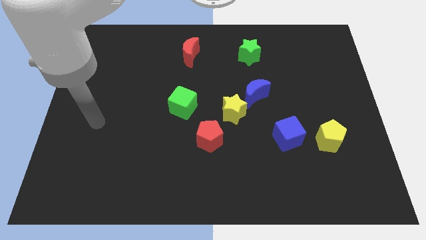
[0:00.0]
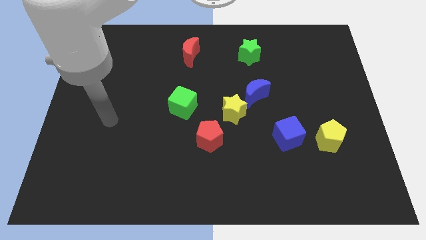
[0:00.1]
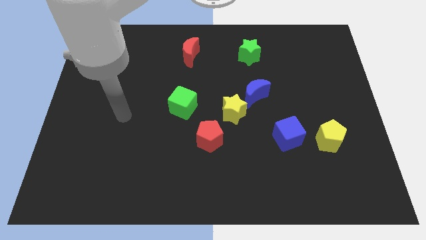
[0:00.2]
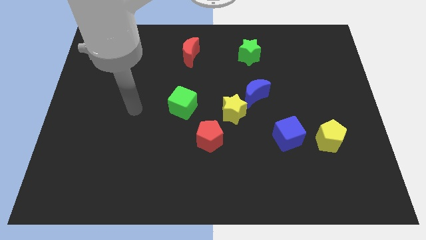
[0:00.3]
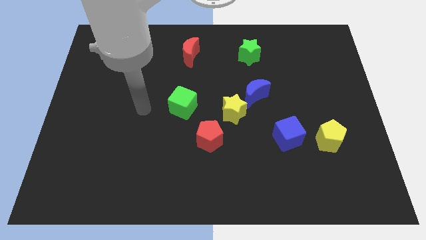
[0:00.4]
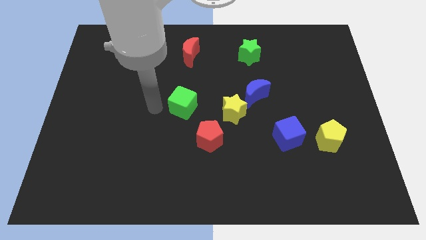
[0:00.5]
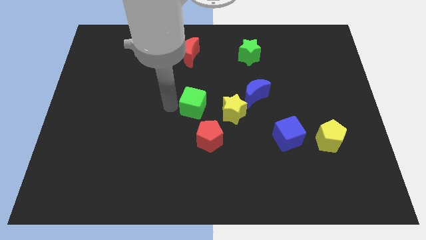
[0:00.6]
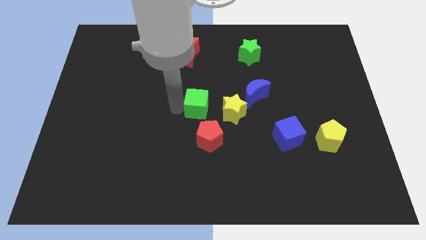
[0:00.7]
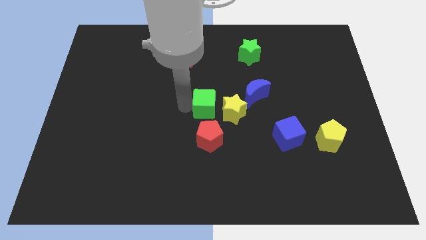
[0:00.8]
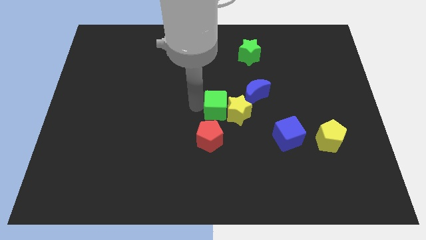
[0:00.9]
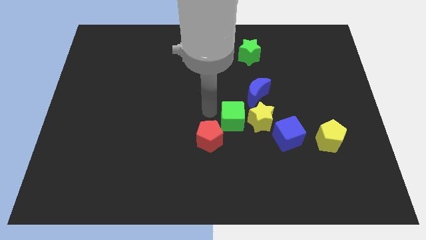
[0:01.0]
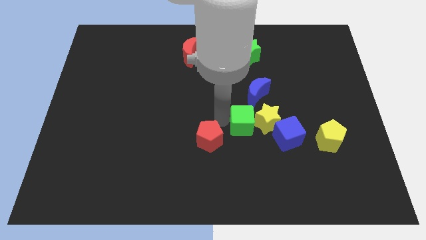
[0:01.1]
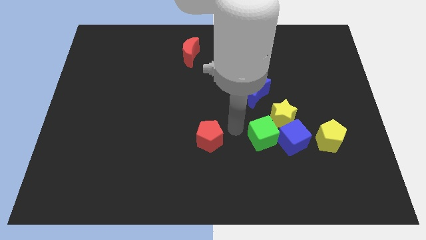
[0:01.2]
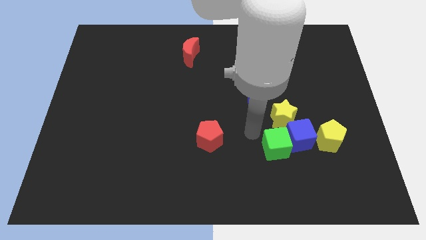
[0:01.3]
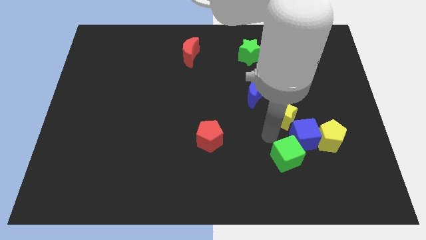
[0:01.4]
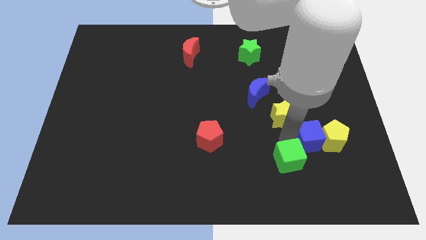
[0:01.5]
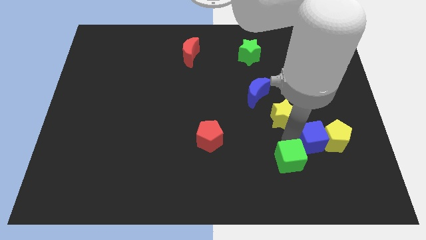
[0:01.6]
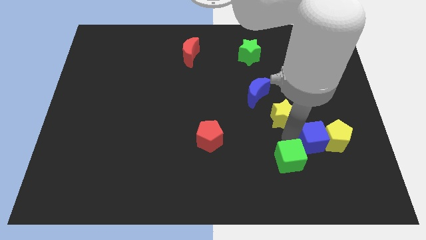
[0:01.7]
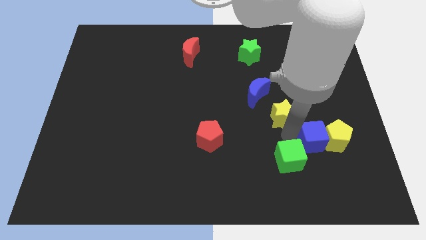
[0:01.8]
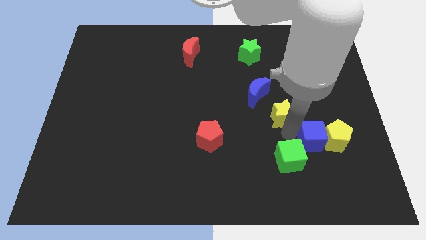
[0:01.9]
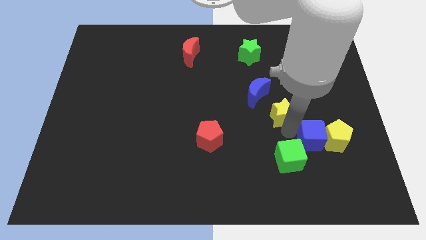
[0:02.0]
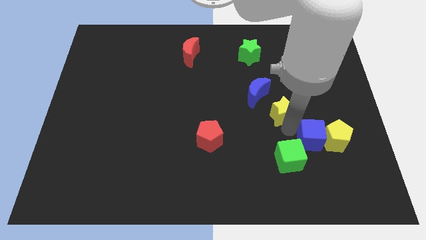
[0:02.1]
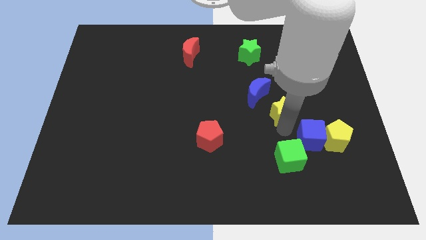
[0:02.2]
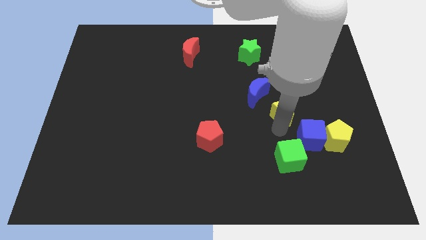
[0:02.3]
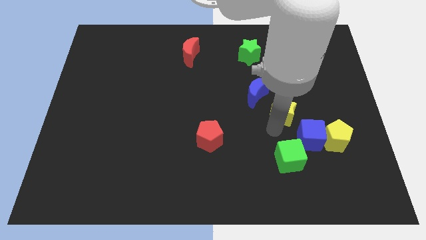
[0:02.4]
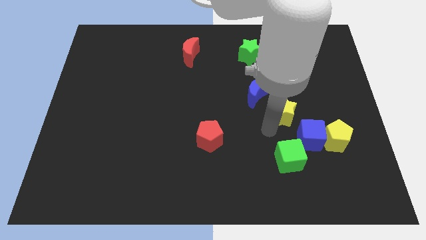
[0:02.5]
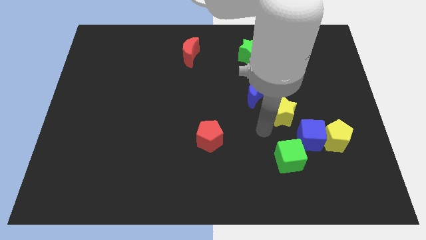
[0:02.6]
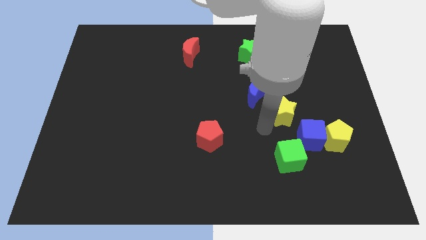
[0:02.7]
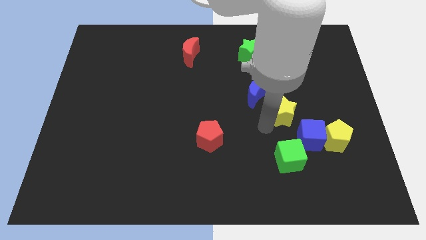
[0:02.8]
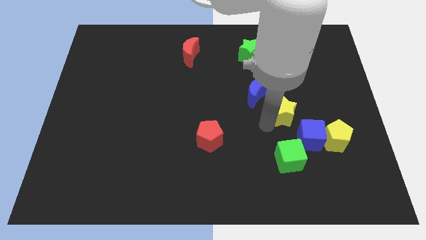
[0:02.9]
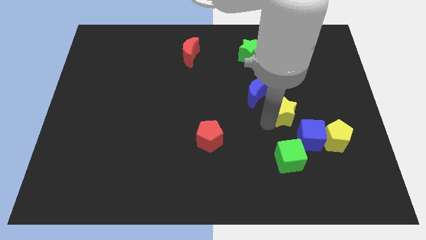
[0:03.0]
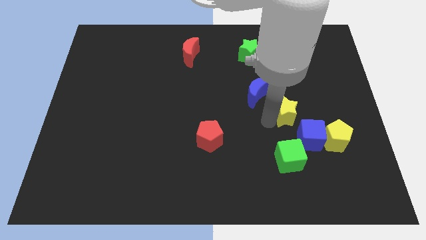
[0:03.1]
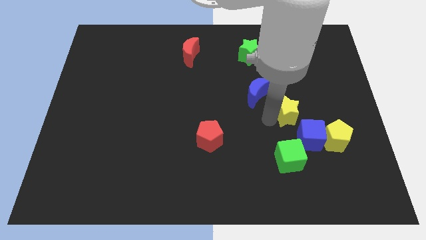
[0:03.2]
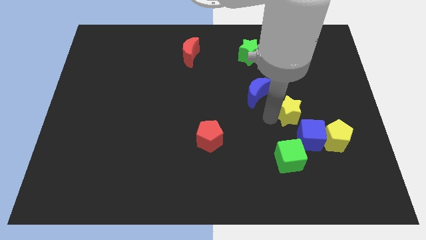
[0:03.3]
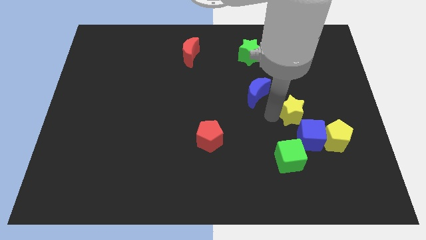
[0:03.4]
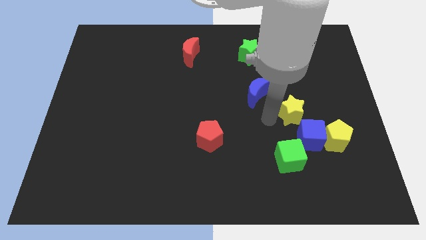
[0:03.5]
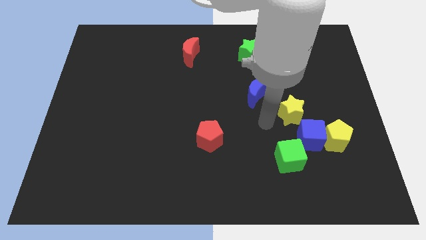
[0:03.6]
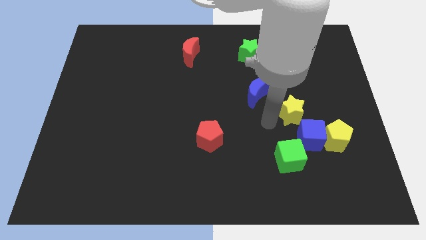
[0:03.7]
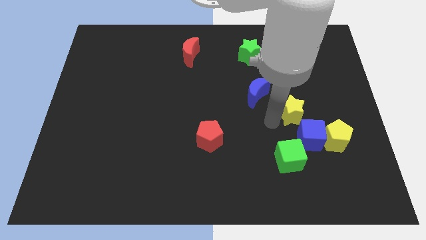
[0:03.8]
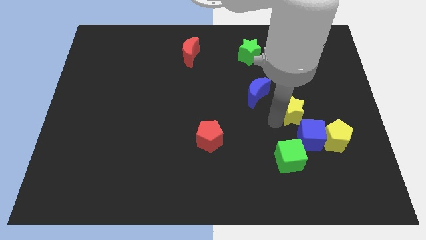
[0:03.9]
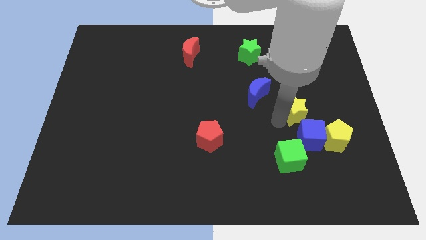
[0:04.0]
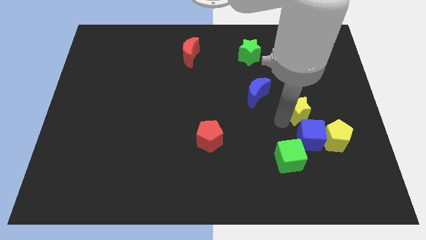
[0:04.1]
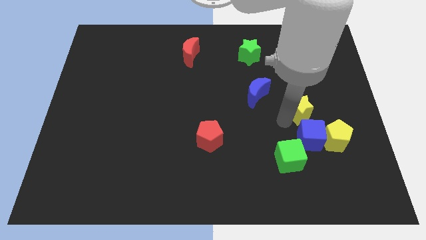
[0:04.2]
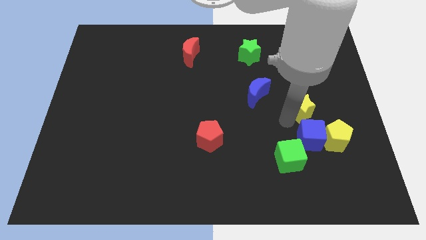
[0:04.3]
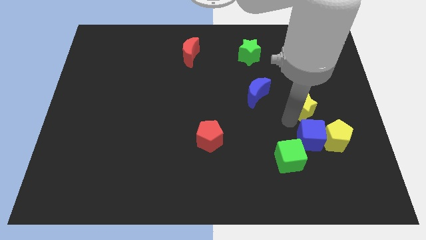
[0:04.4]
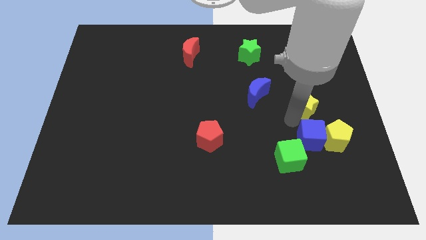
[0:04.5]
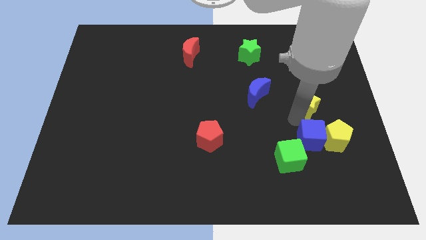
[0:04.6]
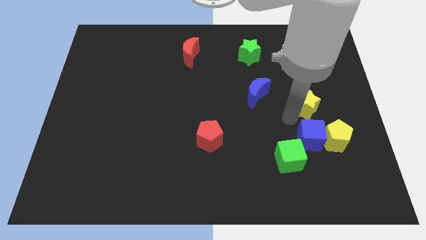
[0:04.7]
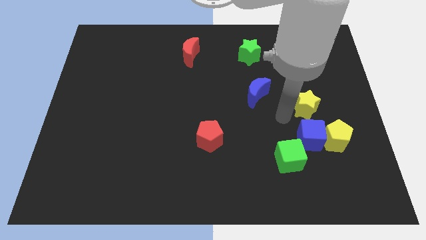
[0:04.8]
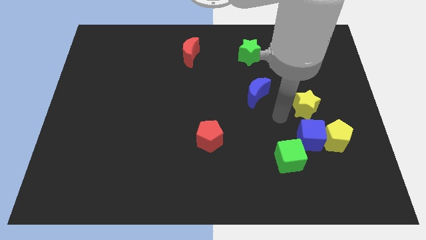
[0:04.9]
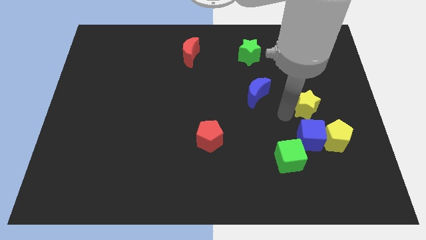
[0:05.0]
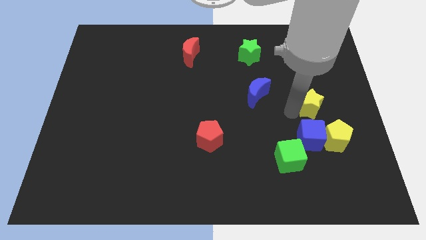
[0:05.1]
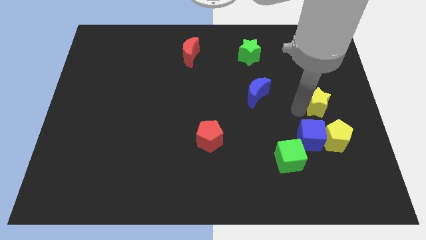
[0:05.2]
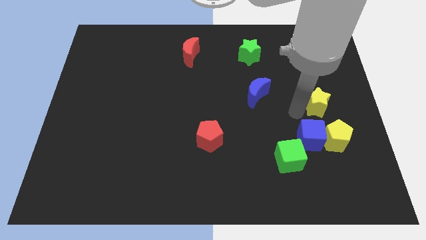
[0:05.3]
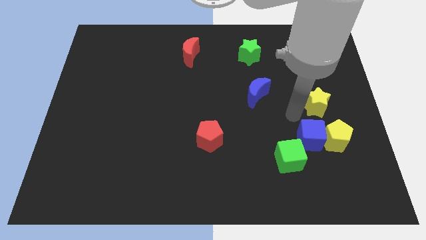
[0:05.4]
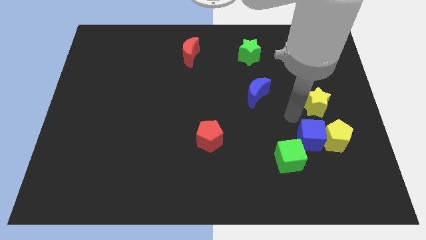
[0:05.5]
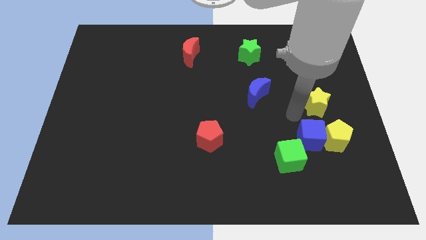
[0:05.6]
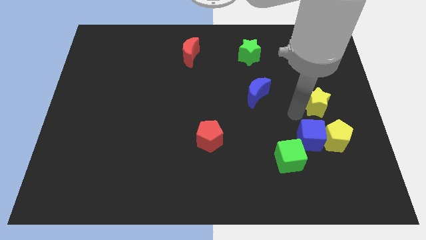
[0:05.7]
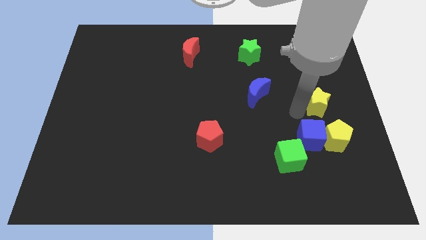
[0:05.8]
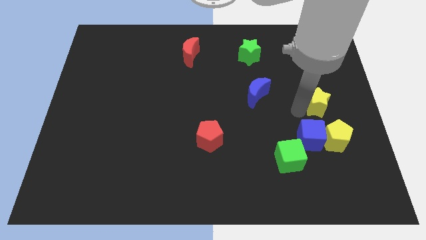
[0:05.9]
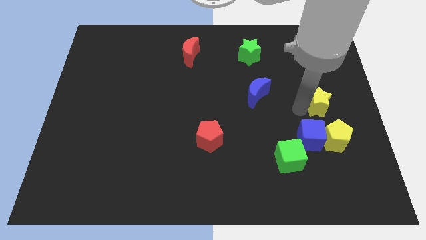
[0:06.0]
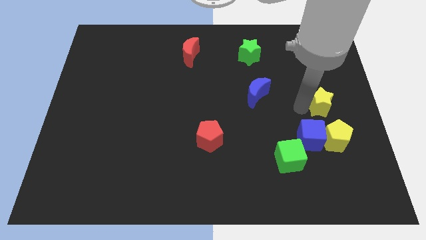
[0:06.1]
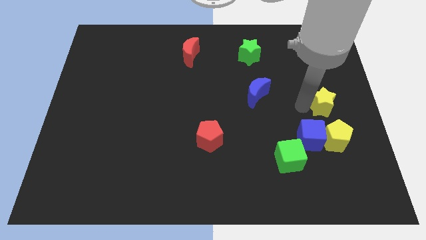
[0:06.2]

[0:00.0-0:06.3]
put the yellow star to the right side
